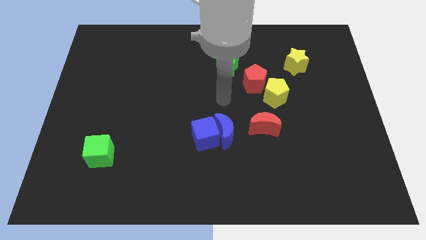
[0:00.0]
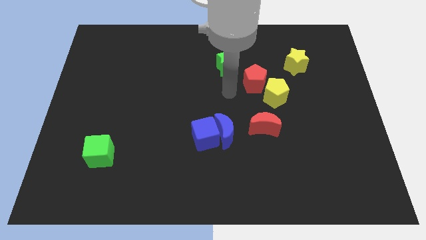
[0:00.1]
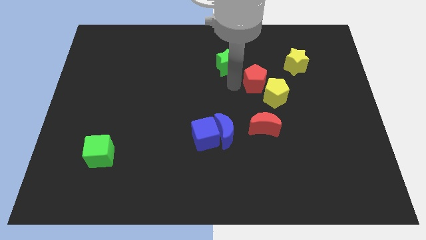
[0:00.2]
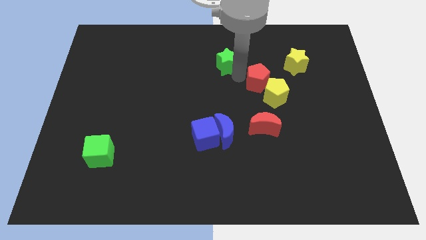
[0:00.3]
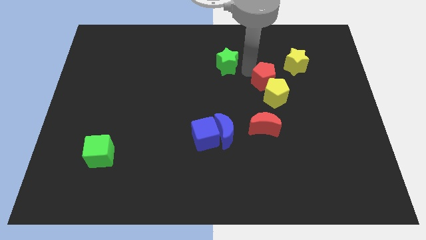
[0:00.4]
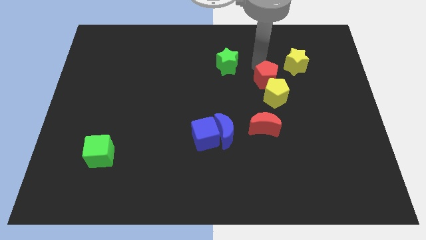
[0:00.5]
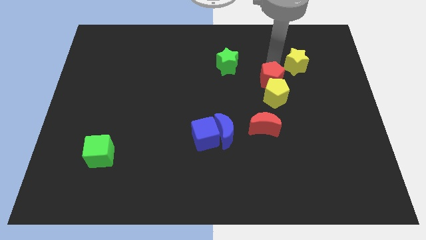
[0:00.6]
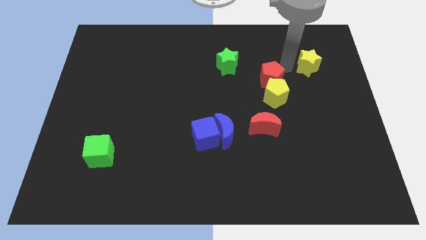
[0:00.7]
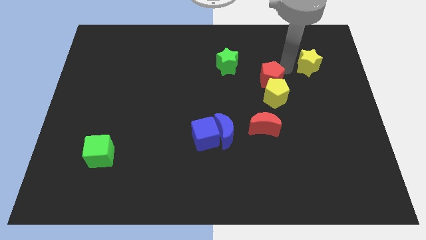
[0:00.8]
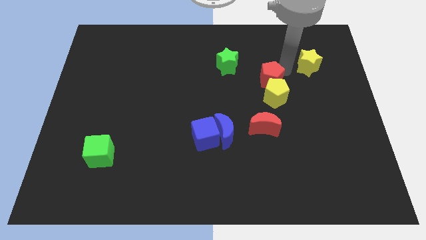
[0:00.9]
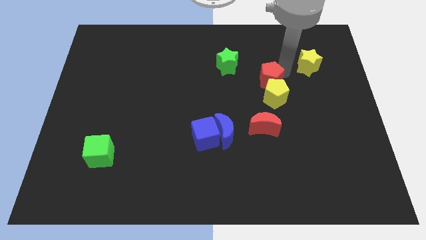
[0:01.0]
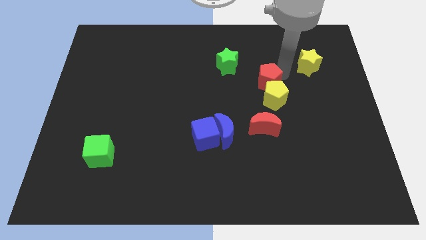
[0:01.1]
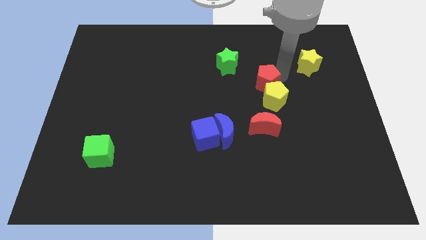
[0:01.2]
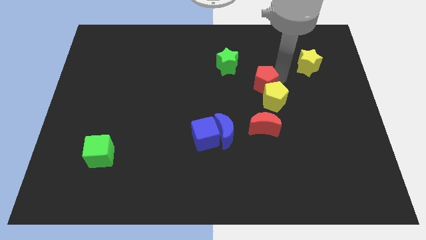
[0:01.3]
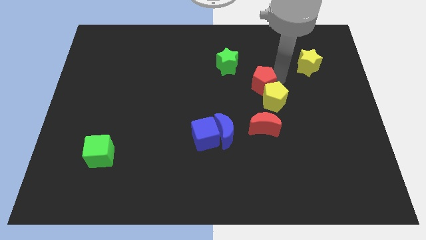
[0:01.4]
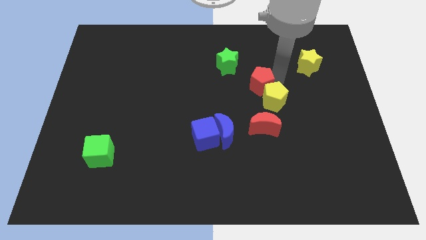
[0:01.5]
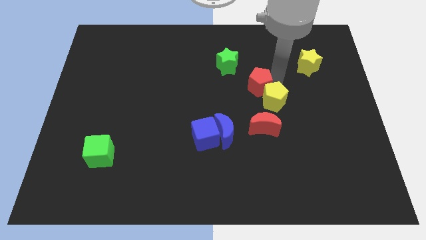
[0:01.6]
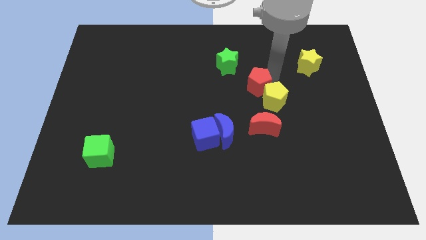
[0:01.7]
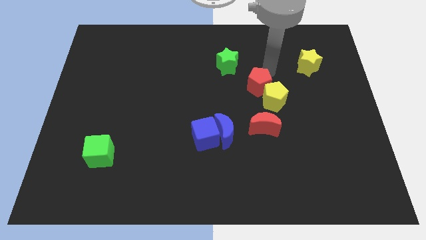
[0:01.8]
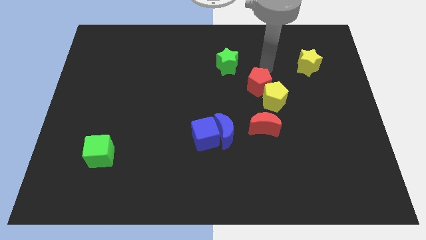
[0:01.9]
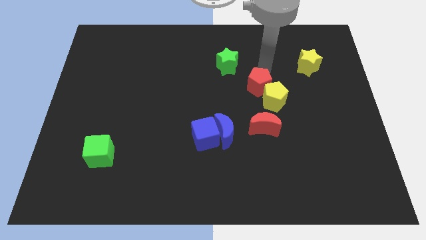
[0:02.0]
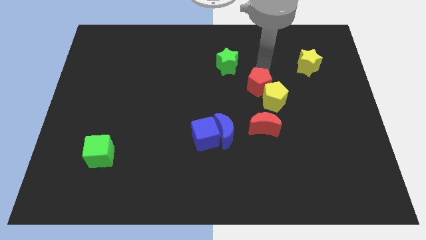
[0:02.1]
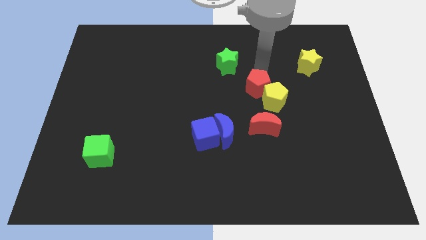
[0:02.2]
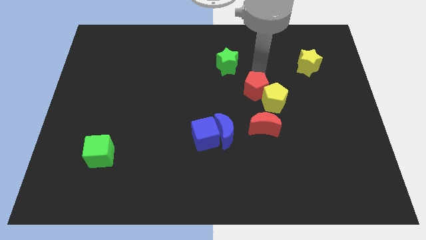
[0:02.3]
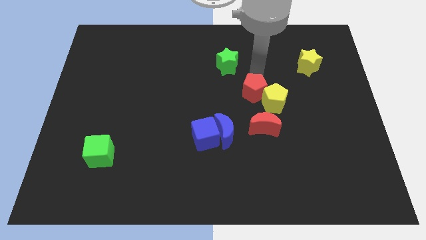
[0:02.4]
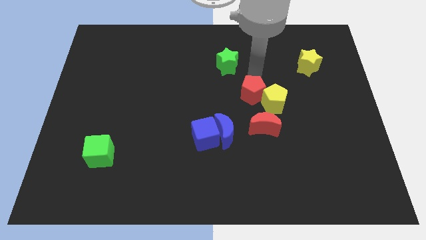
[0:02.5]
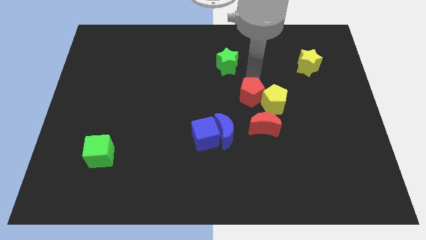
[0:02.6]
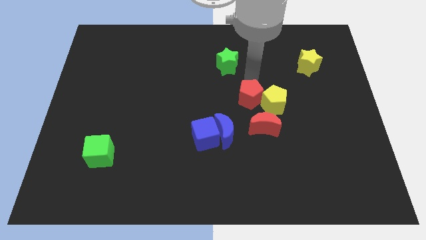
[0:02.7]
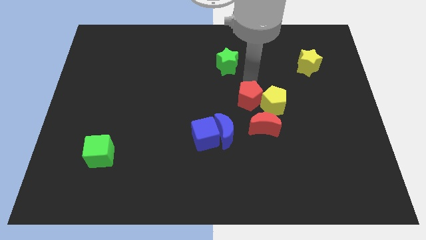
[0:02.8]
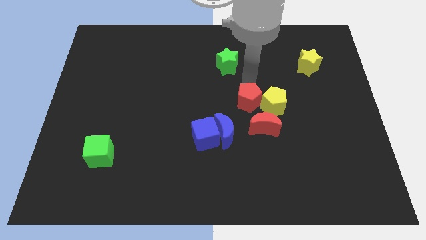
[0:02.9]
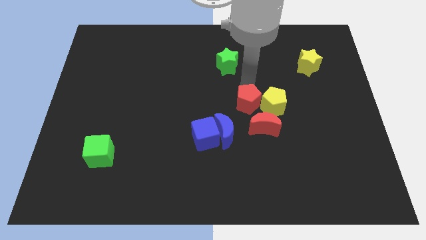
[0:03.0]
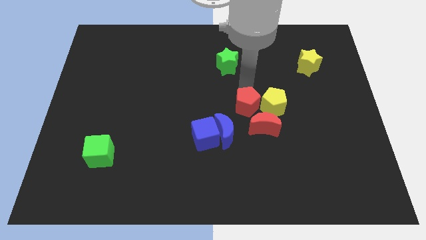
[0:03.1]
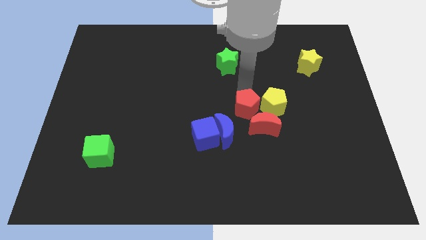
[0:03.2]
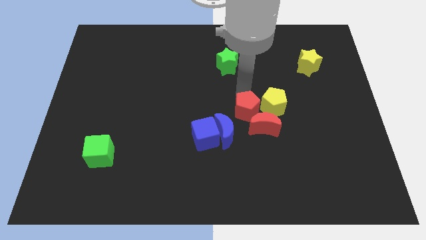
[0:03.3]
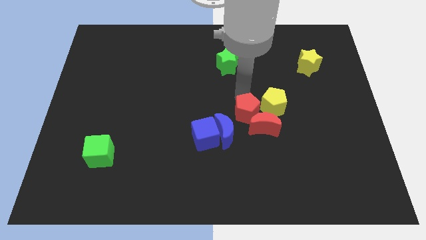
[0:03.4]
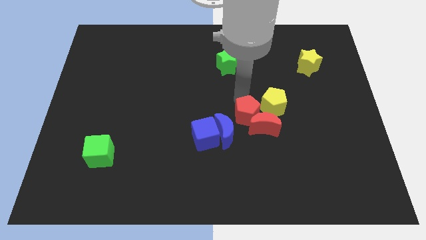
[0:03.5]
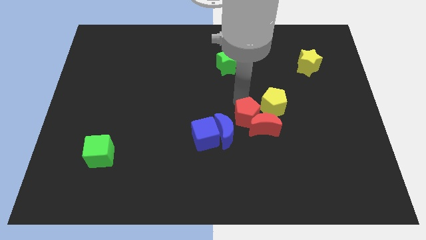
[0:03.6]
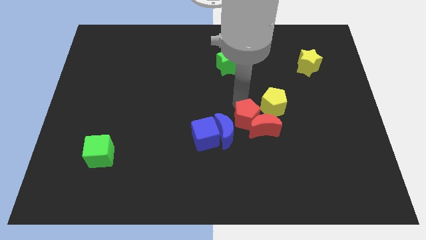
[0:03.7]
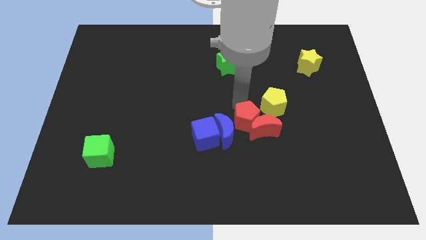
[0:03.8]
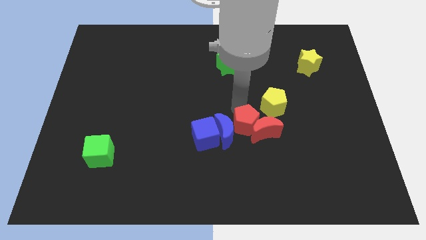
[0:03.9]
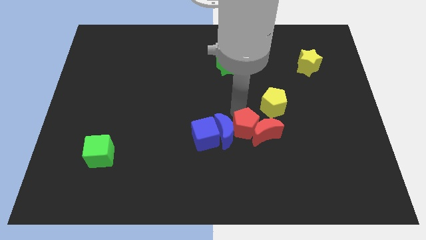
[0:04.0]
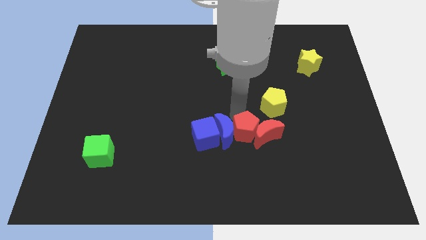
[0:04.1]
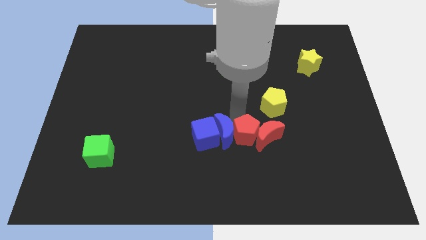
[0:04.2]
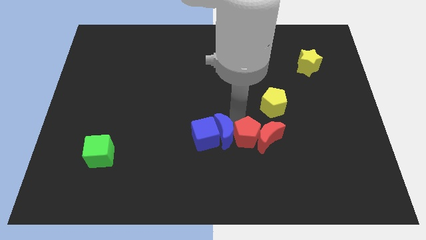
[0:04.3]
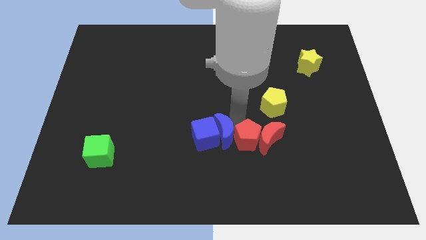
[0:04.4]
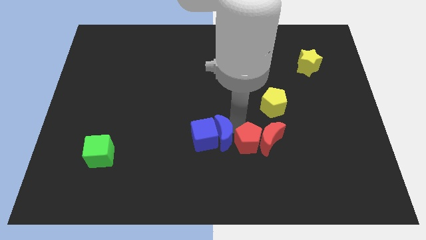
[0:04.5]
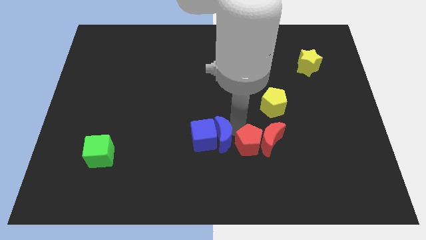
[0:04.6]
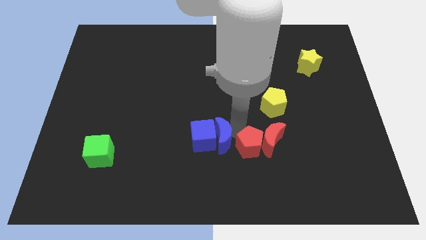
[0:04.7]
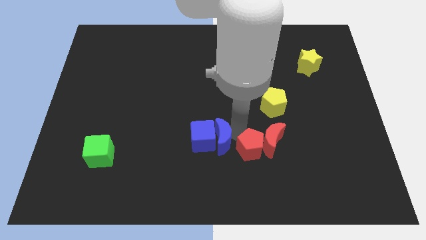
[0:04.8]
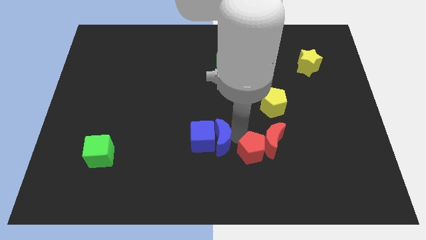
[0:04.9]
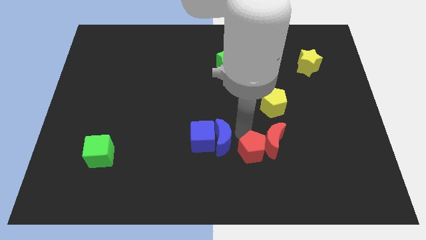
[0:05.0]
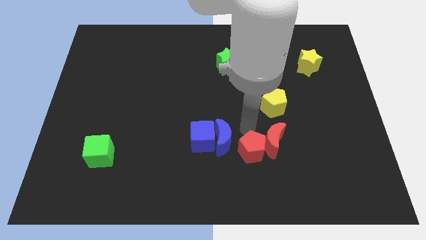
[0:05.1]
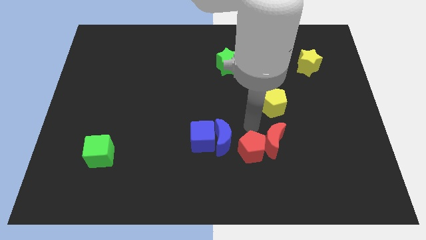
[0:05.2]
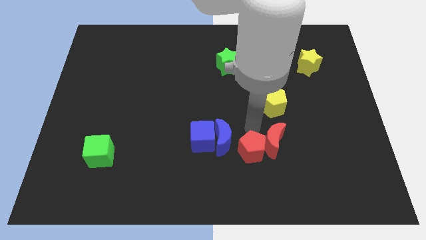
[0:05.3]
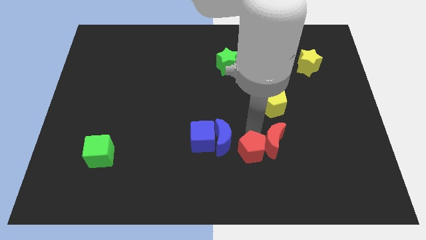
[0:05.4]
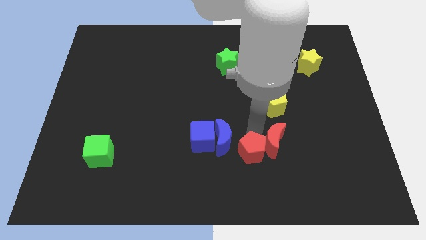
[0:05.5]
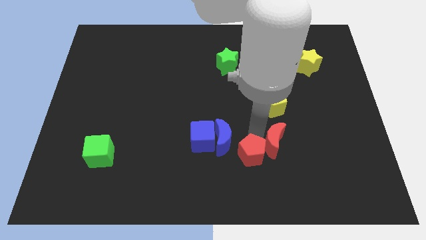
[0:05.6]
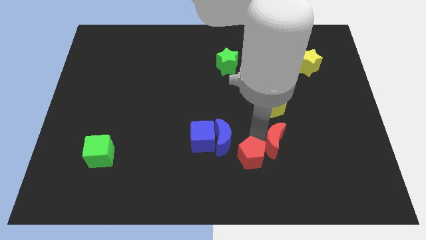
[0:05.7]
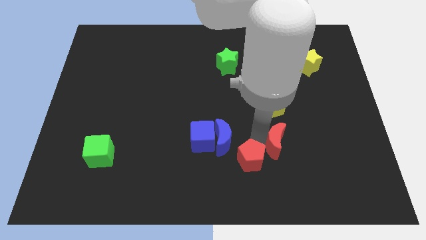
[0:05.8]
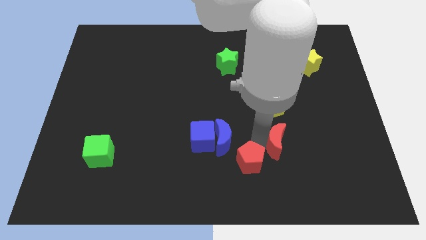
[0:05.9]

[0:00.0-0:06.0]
move the red pentagon to the bottom side
